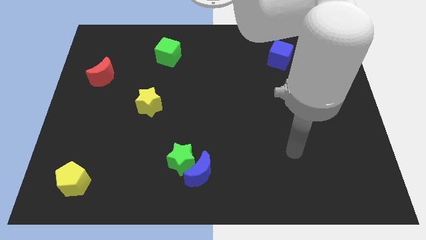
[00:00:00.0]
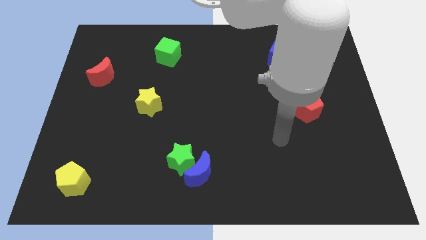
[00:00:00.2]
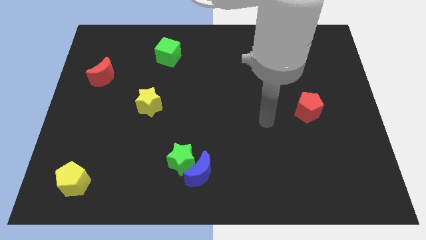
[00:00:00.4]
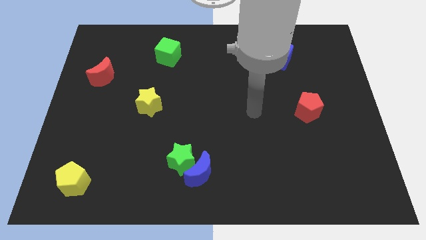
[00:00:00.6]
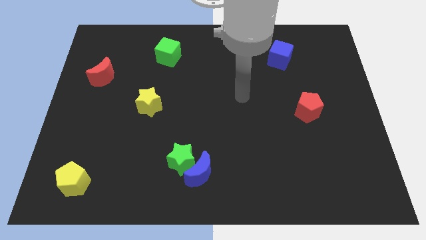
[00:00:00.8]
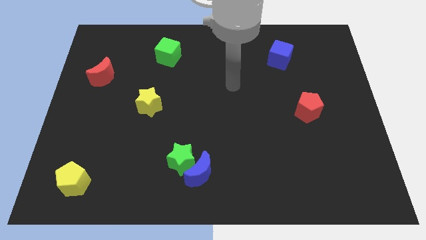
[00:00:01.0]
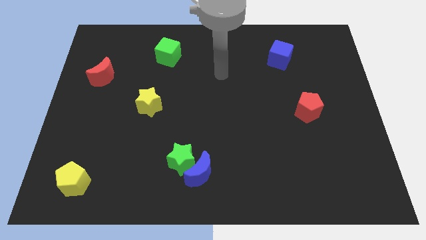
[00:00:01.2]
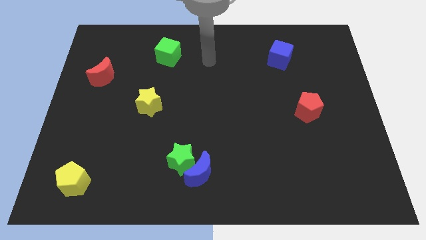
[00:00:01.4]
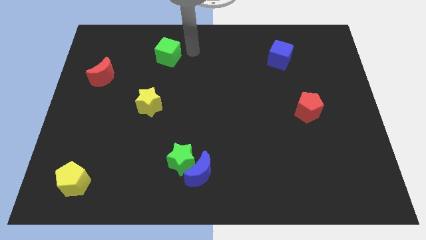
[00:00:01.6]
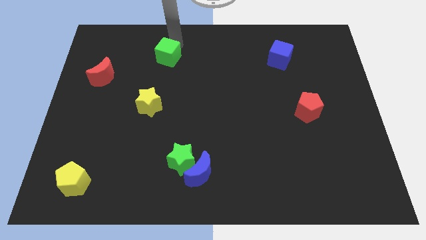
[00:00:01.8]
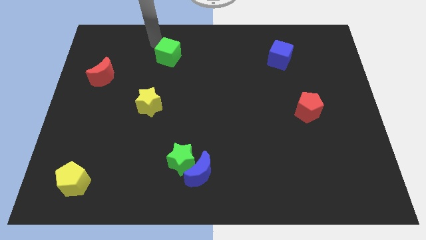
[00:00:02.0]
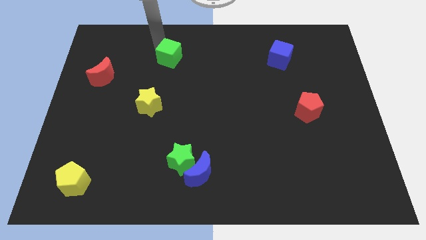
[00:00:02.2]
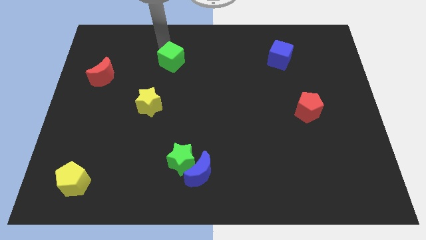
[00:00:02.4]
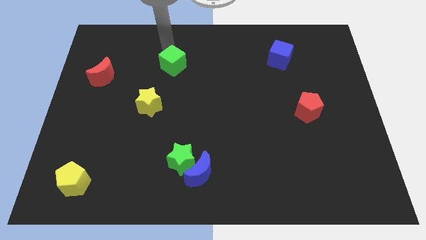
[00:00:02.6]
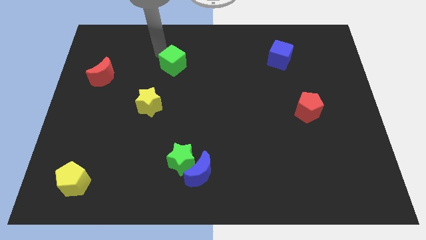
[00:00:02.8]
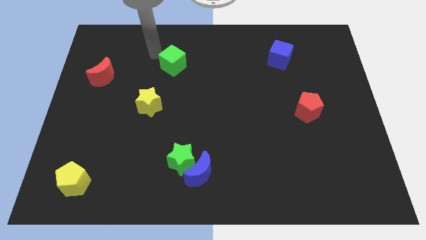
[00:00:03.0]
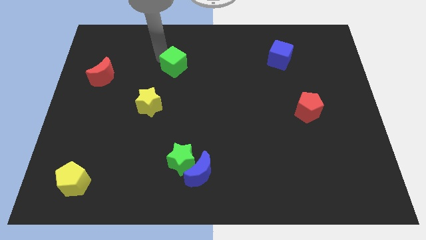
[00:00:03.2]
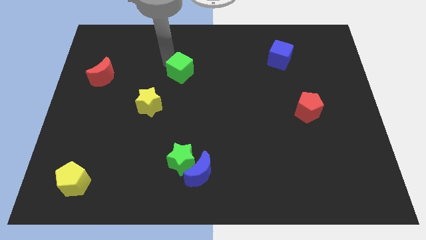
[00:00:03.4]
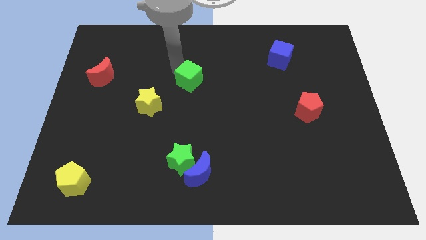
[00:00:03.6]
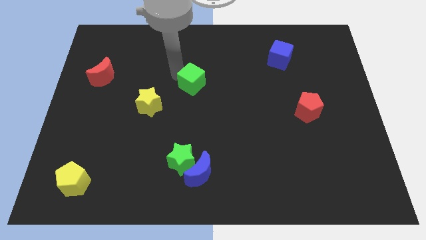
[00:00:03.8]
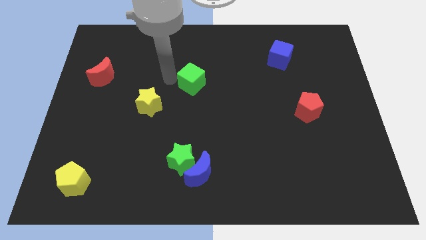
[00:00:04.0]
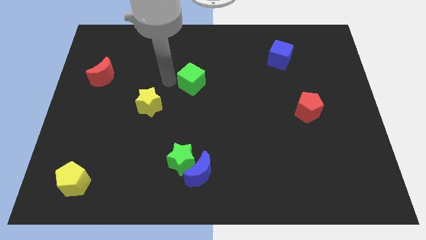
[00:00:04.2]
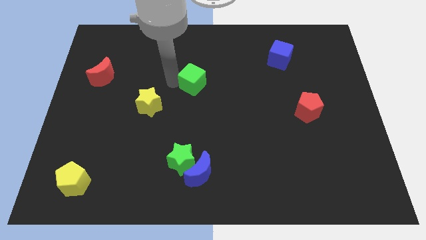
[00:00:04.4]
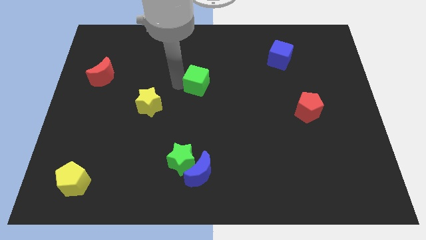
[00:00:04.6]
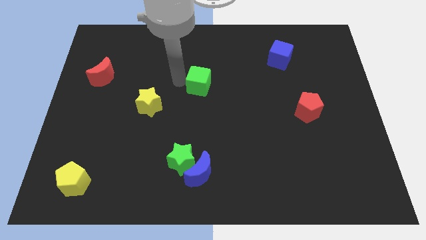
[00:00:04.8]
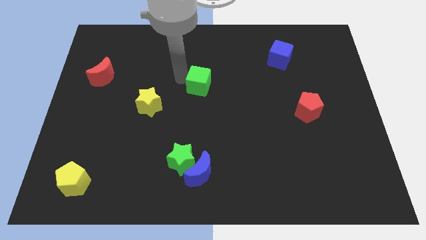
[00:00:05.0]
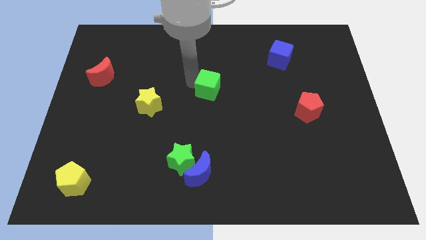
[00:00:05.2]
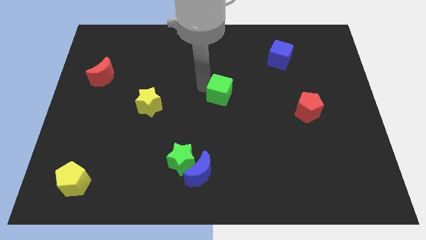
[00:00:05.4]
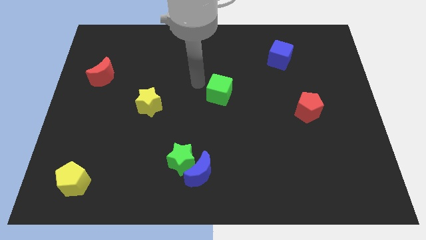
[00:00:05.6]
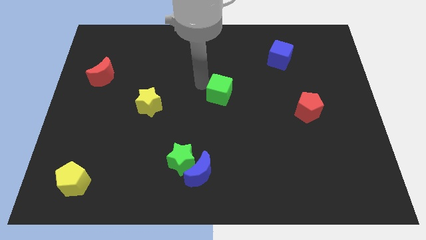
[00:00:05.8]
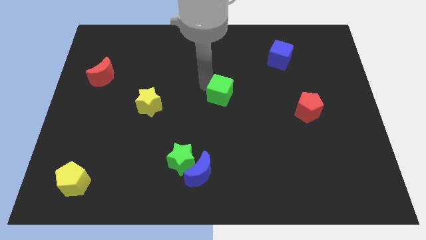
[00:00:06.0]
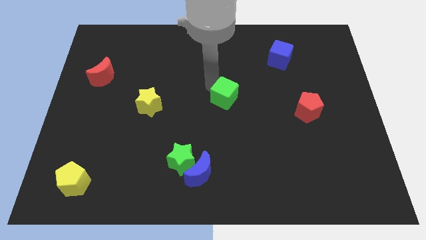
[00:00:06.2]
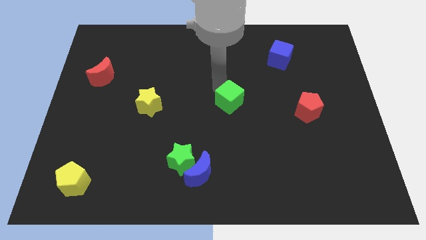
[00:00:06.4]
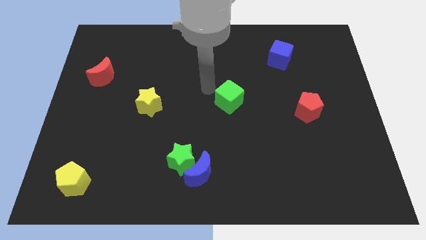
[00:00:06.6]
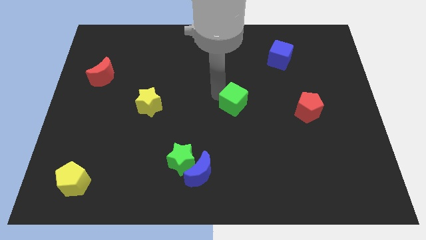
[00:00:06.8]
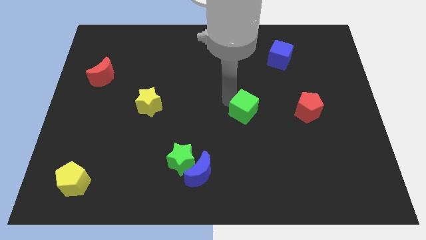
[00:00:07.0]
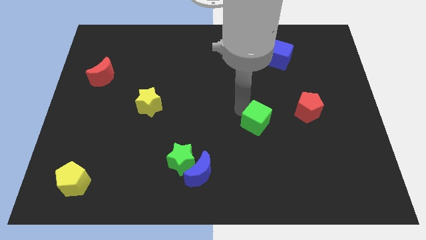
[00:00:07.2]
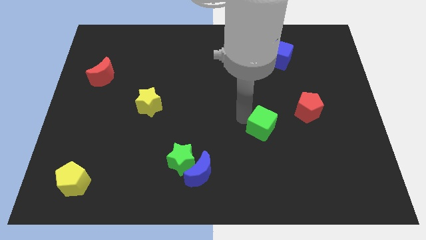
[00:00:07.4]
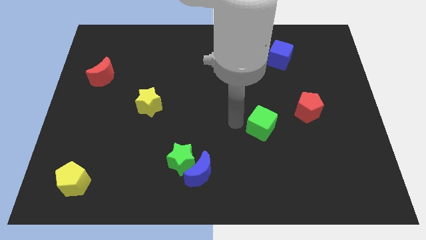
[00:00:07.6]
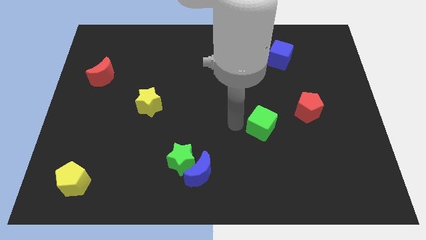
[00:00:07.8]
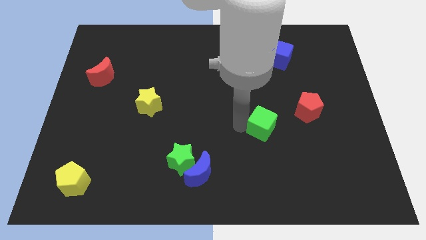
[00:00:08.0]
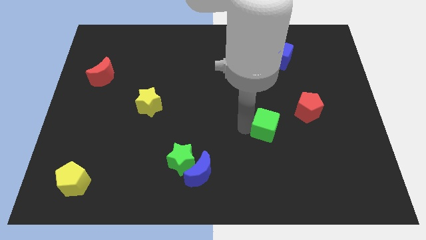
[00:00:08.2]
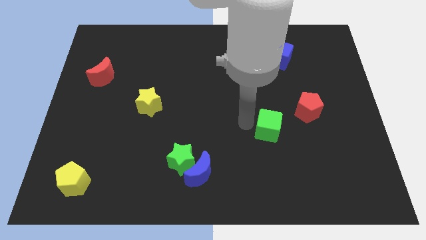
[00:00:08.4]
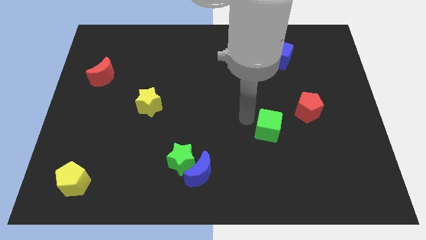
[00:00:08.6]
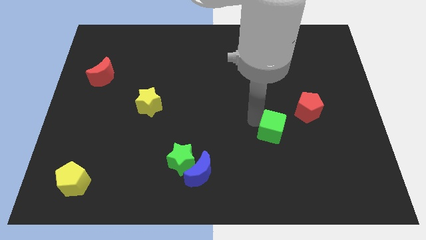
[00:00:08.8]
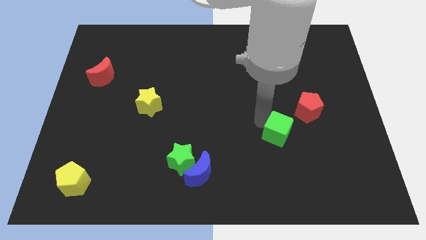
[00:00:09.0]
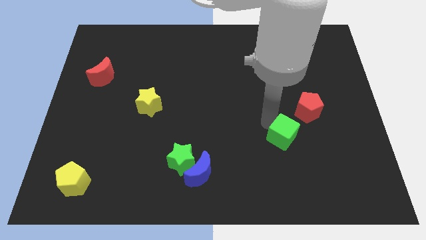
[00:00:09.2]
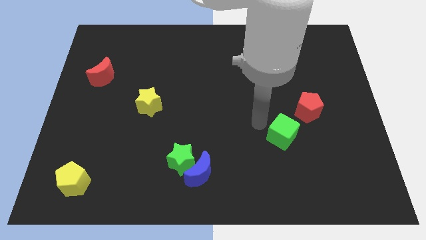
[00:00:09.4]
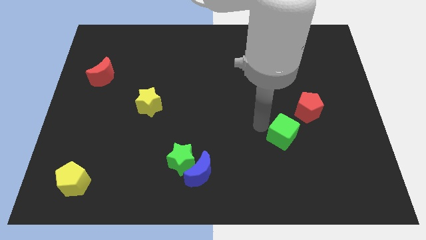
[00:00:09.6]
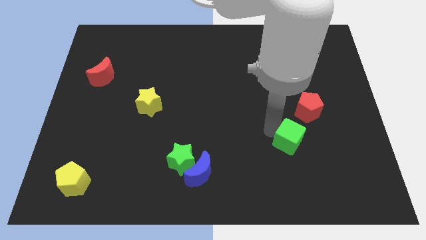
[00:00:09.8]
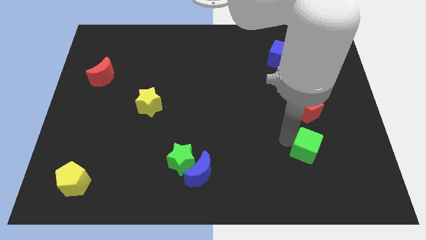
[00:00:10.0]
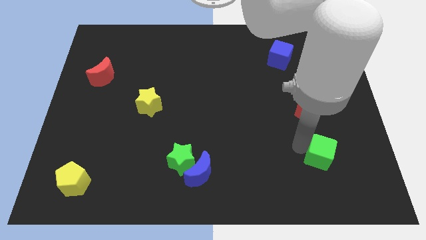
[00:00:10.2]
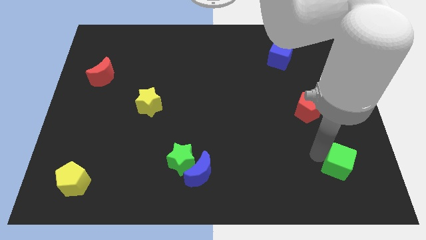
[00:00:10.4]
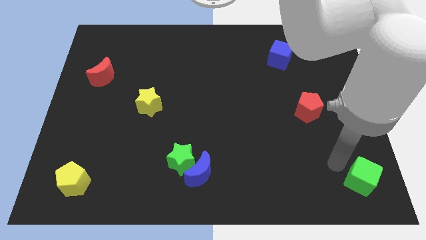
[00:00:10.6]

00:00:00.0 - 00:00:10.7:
slide the green cube to the bottom right
